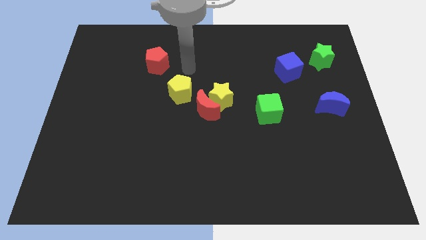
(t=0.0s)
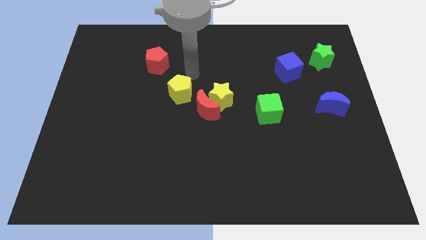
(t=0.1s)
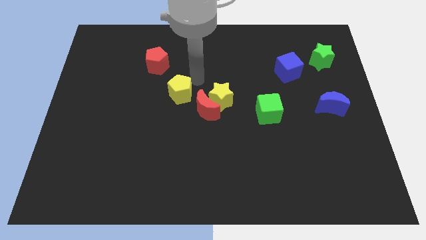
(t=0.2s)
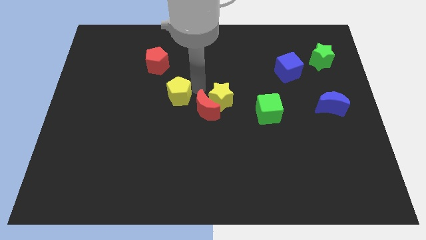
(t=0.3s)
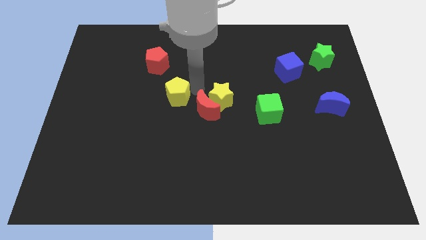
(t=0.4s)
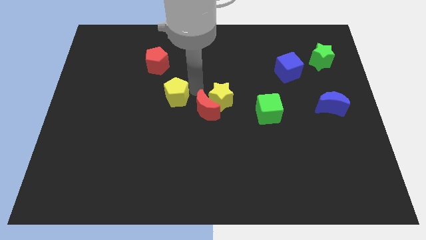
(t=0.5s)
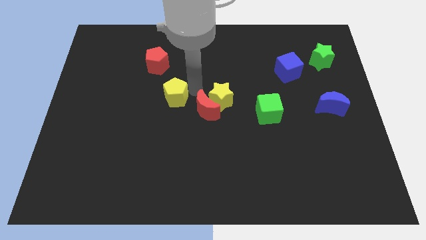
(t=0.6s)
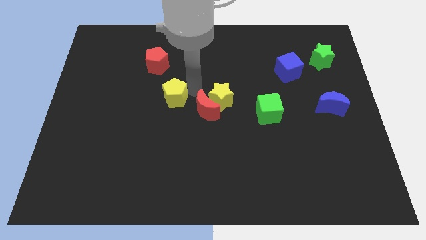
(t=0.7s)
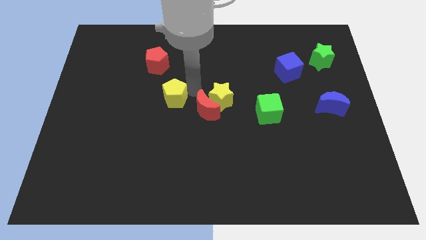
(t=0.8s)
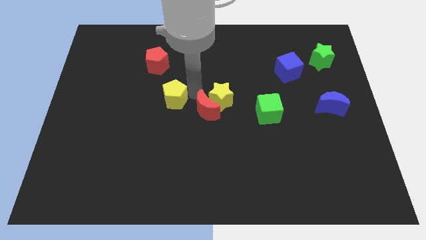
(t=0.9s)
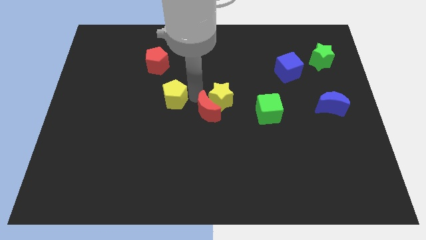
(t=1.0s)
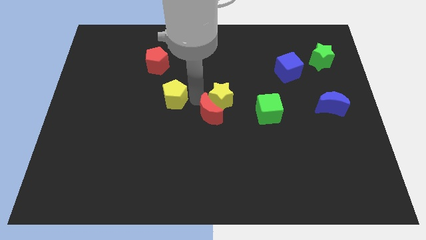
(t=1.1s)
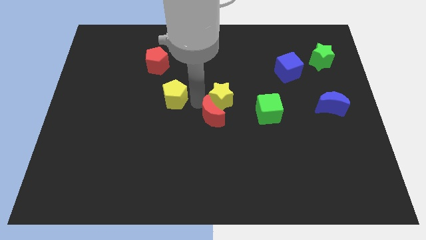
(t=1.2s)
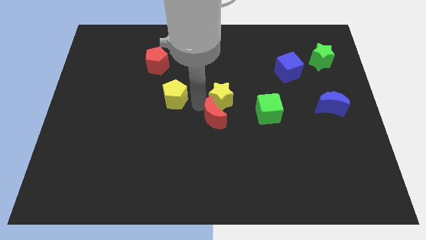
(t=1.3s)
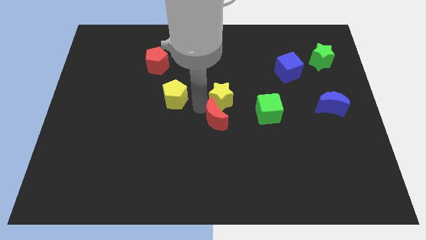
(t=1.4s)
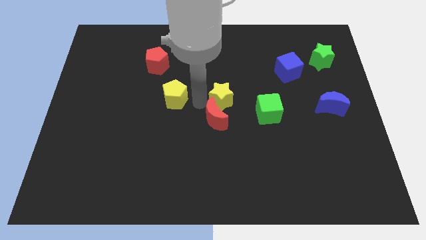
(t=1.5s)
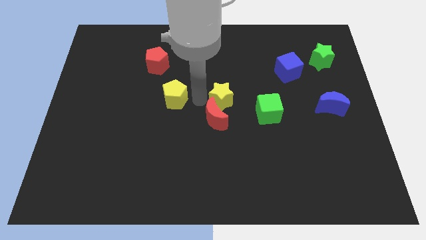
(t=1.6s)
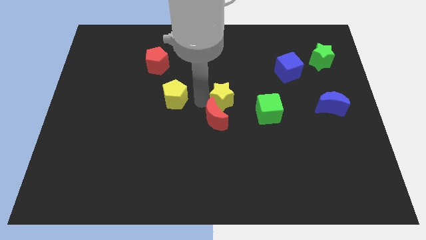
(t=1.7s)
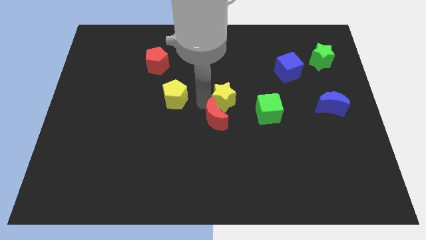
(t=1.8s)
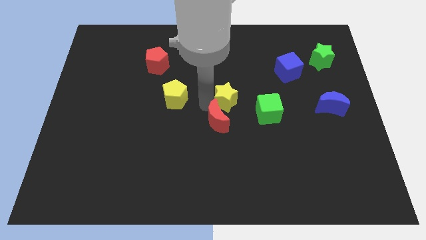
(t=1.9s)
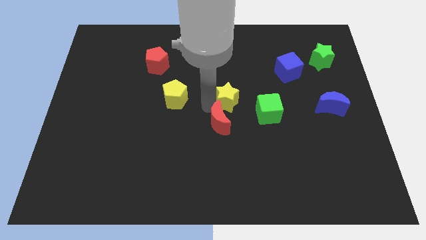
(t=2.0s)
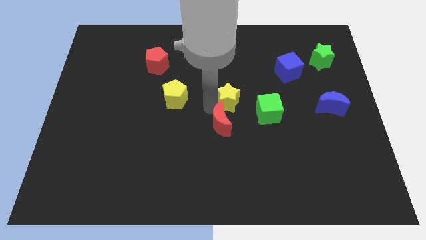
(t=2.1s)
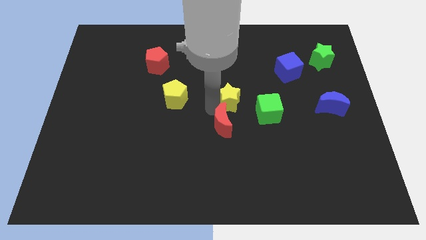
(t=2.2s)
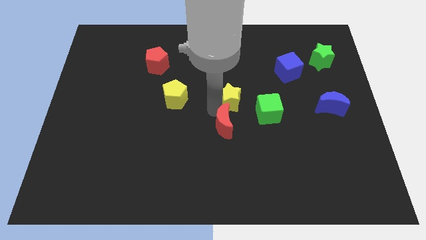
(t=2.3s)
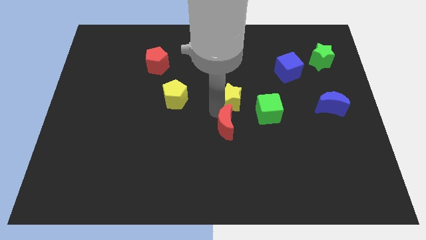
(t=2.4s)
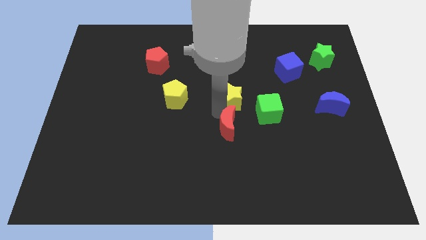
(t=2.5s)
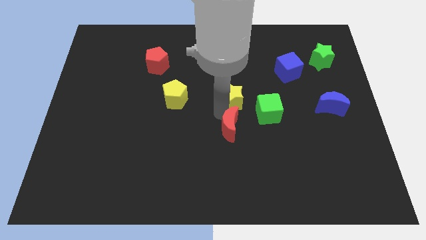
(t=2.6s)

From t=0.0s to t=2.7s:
separate the red moon from the yellow star and yellow pentagon

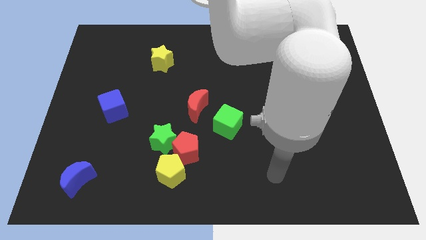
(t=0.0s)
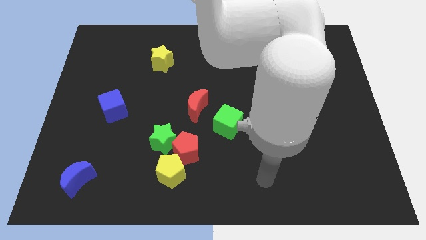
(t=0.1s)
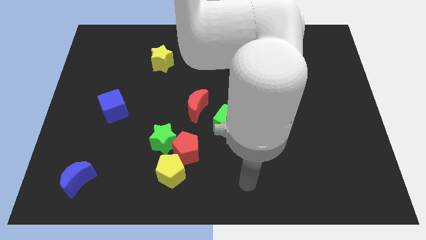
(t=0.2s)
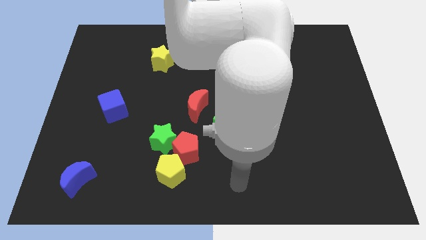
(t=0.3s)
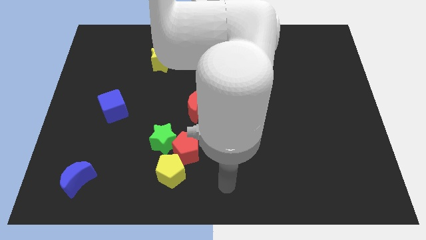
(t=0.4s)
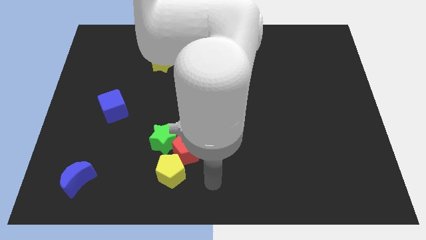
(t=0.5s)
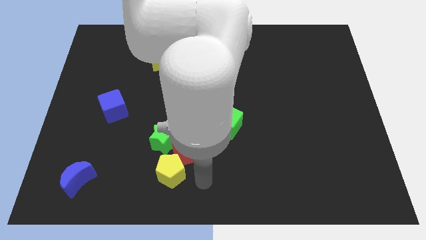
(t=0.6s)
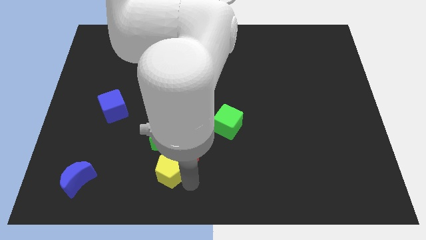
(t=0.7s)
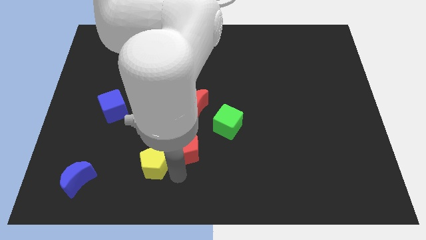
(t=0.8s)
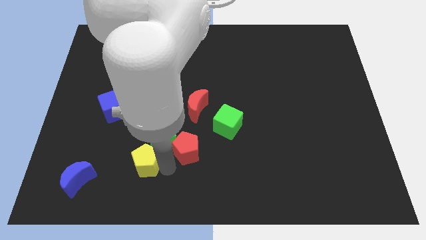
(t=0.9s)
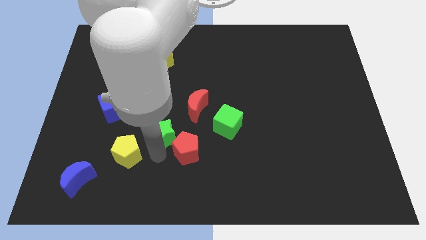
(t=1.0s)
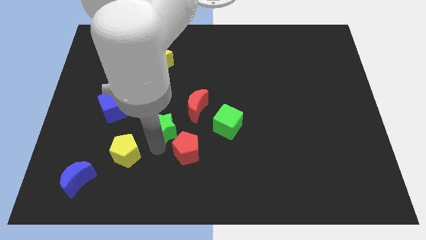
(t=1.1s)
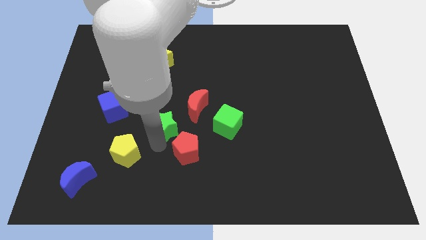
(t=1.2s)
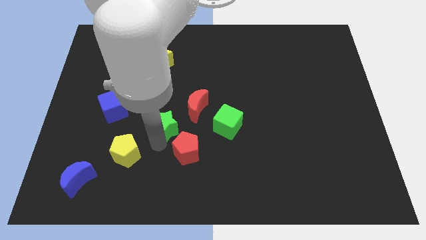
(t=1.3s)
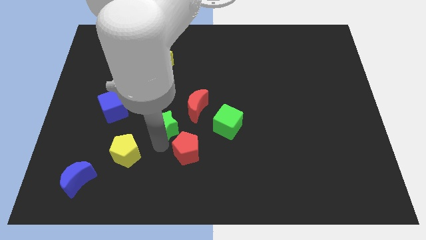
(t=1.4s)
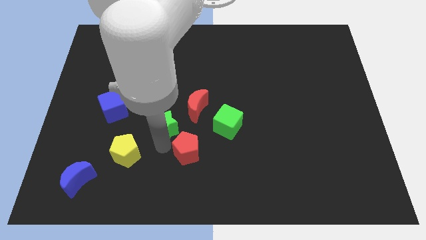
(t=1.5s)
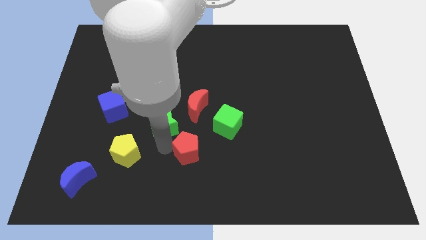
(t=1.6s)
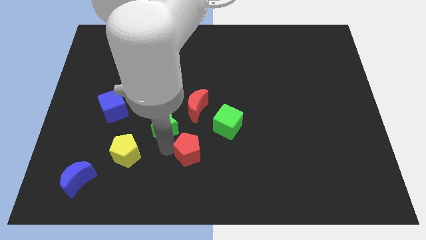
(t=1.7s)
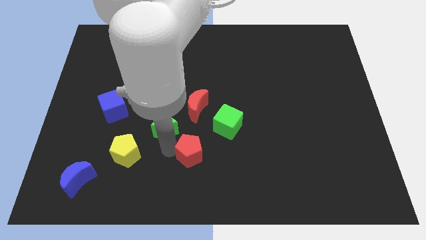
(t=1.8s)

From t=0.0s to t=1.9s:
move the red pentagon away from the green star and yellow pentagon

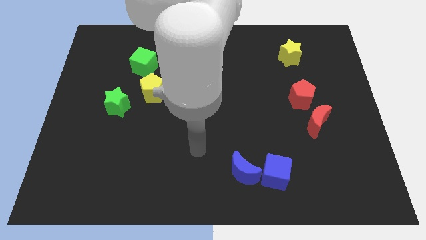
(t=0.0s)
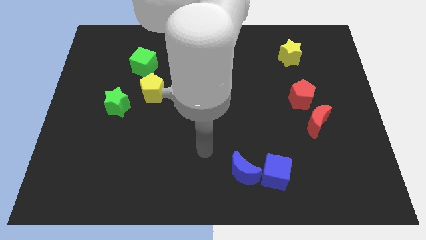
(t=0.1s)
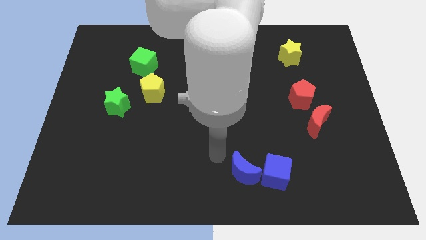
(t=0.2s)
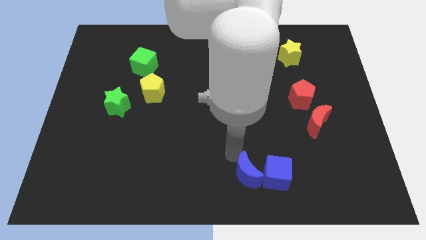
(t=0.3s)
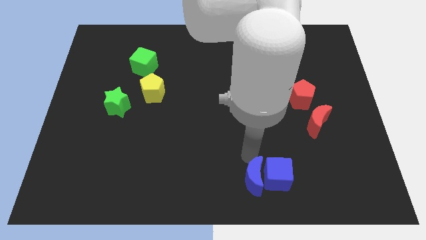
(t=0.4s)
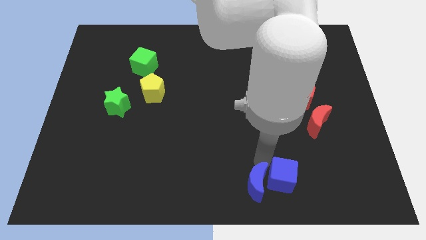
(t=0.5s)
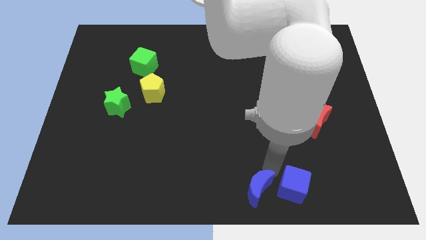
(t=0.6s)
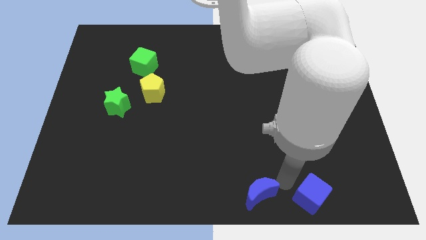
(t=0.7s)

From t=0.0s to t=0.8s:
pull the blue moon apart from the blue cube

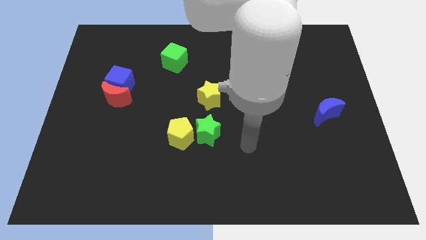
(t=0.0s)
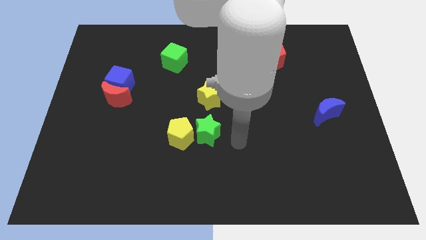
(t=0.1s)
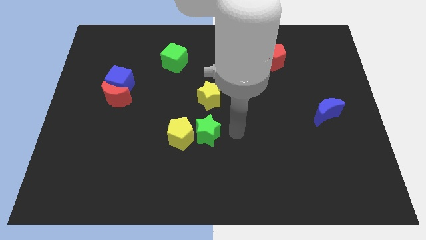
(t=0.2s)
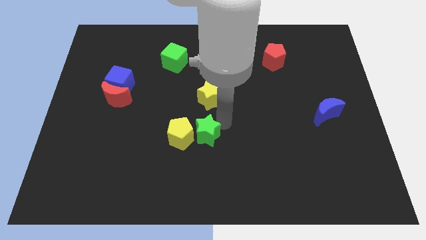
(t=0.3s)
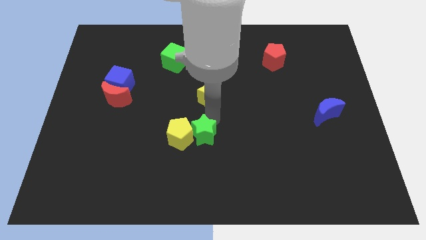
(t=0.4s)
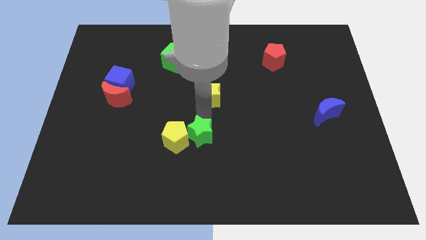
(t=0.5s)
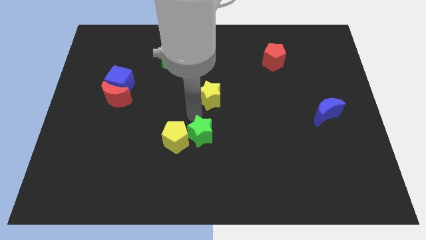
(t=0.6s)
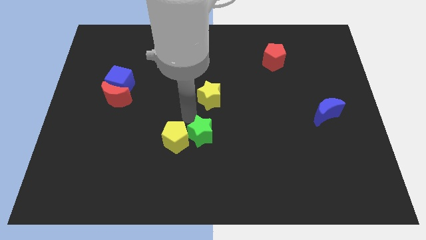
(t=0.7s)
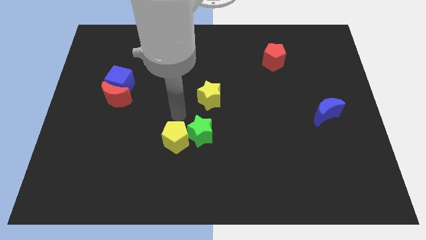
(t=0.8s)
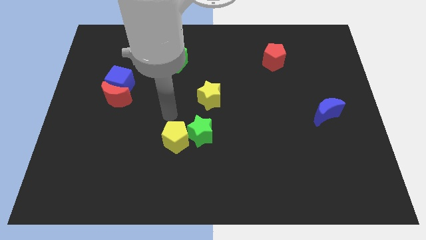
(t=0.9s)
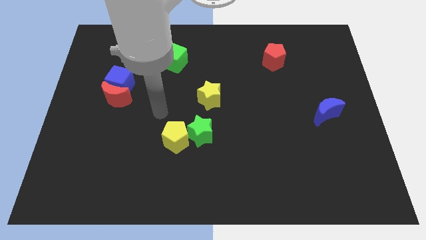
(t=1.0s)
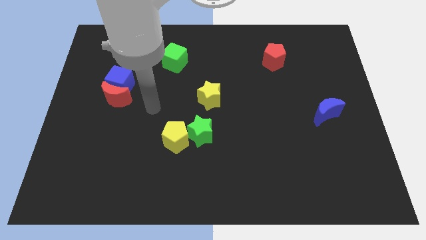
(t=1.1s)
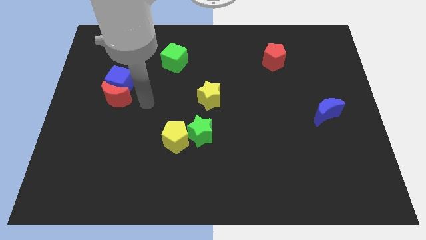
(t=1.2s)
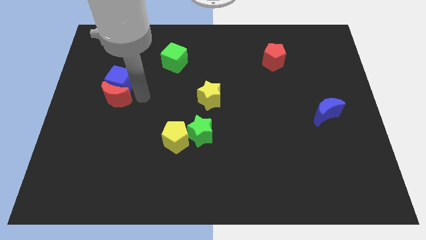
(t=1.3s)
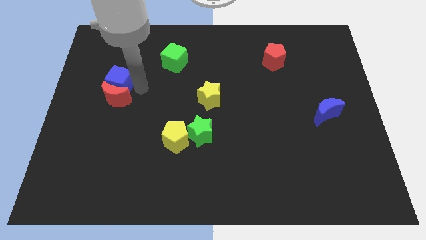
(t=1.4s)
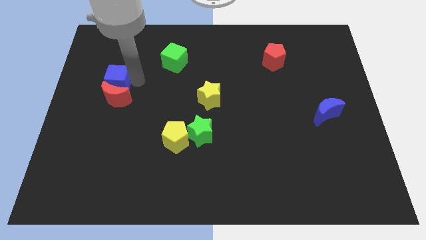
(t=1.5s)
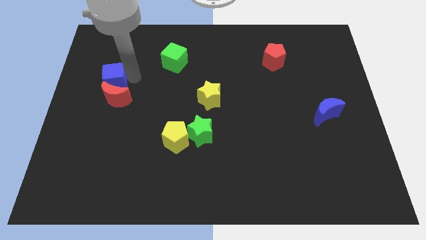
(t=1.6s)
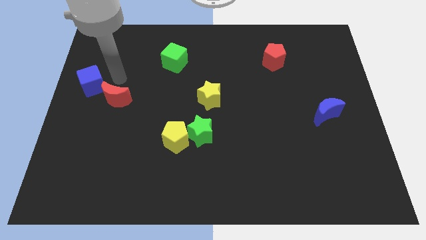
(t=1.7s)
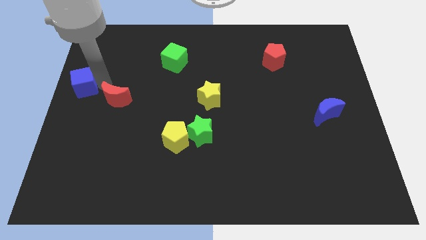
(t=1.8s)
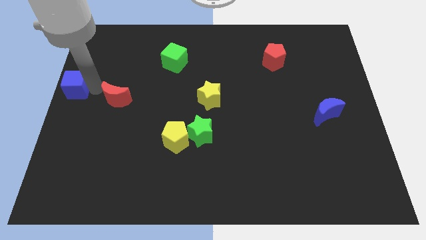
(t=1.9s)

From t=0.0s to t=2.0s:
separate the red moon from the blue cube

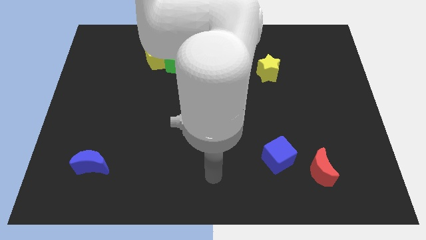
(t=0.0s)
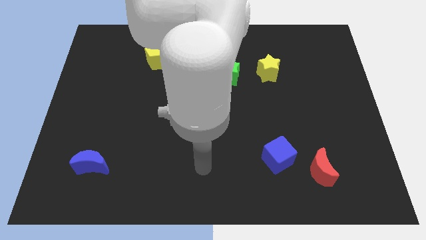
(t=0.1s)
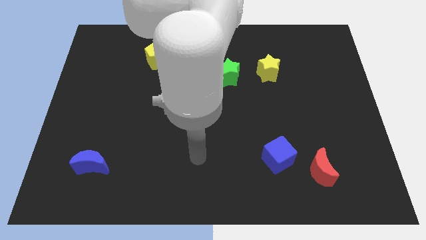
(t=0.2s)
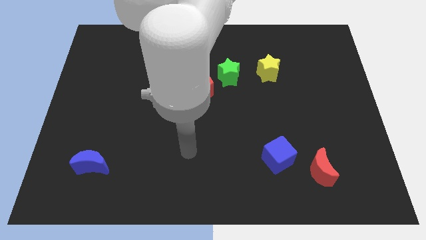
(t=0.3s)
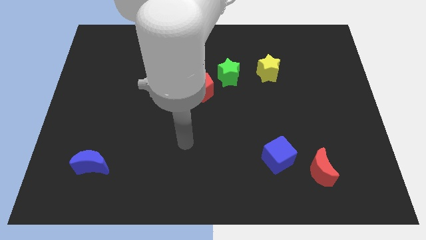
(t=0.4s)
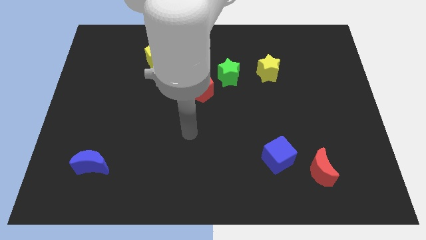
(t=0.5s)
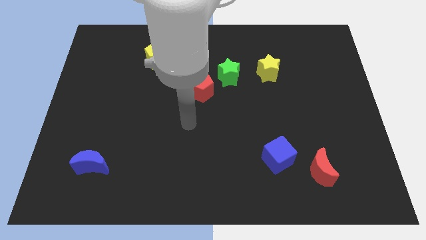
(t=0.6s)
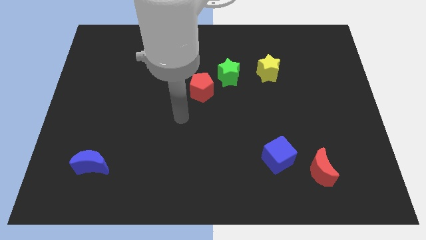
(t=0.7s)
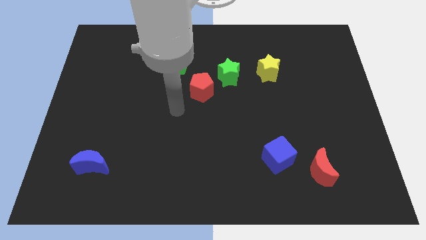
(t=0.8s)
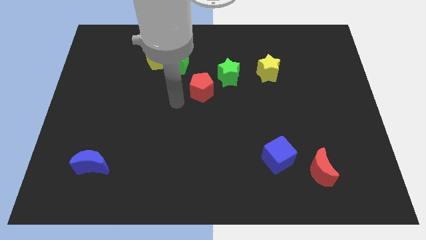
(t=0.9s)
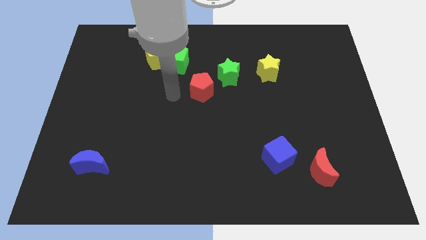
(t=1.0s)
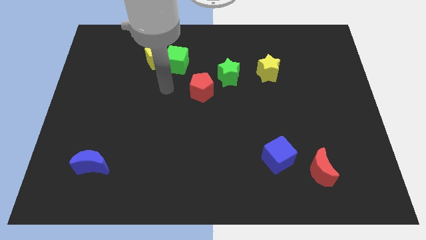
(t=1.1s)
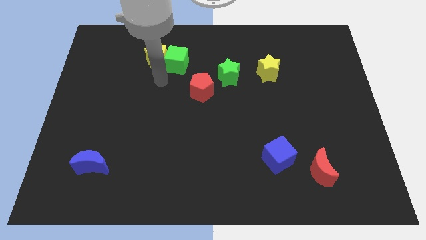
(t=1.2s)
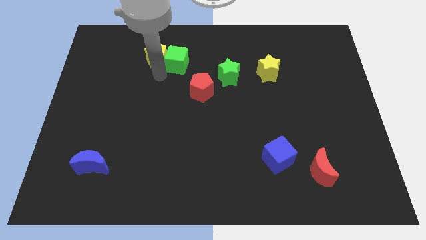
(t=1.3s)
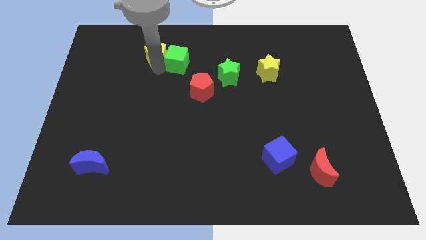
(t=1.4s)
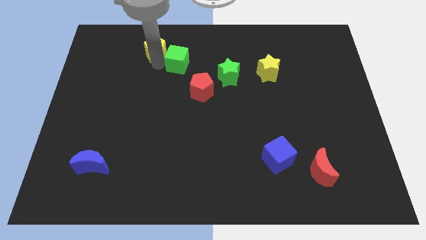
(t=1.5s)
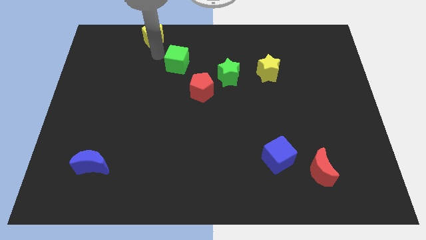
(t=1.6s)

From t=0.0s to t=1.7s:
move the green cube away from the yellow pentagon
